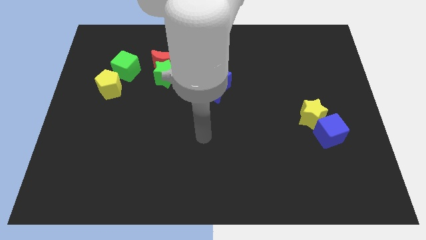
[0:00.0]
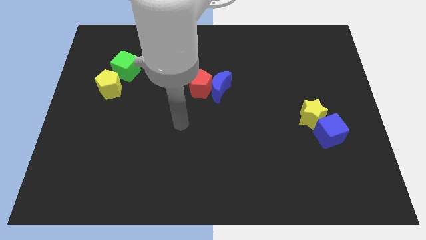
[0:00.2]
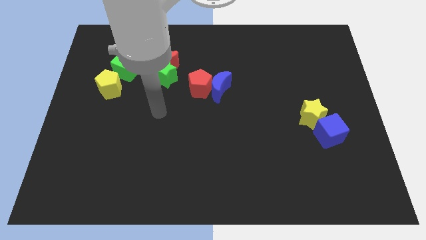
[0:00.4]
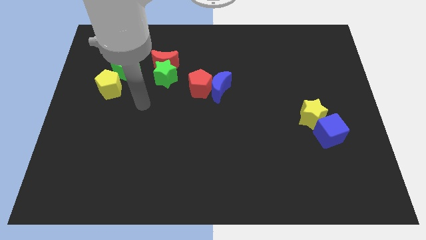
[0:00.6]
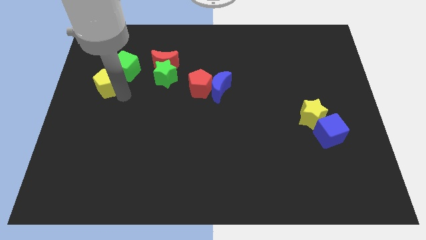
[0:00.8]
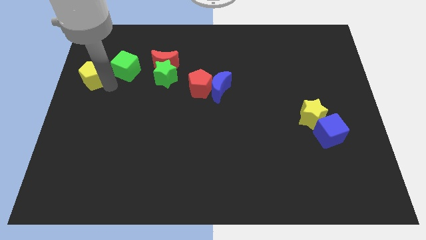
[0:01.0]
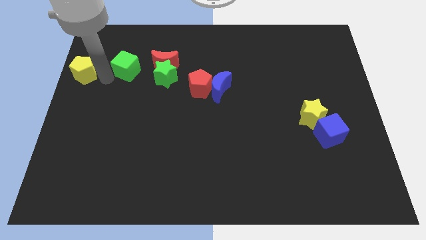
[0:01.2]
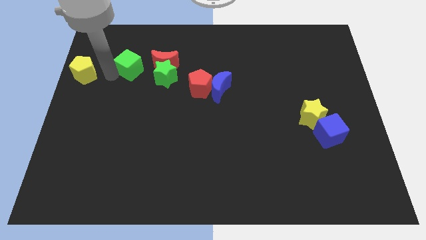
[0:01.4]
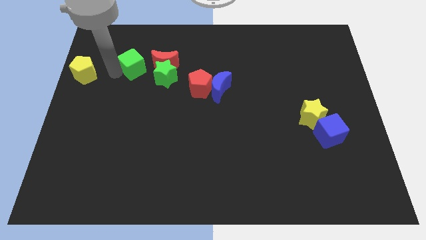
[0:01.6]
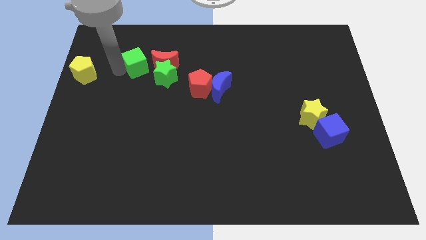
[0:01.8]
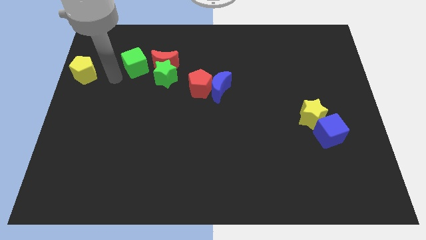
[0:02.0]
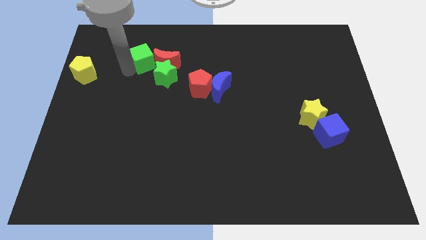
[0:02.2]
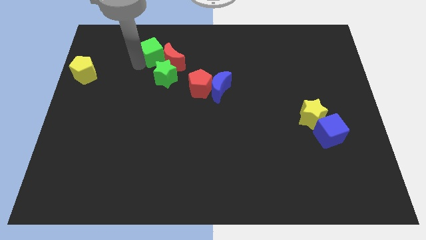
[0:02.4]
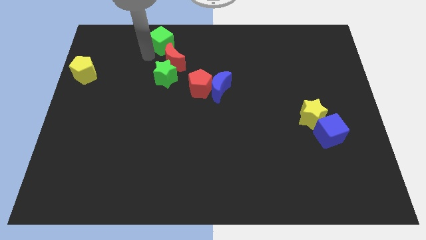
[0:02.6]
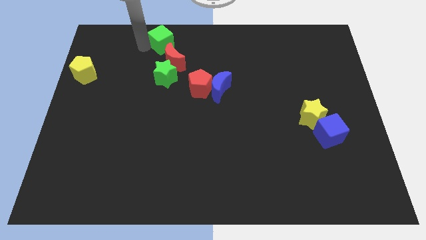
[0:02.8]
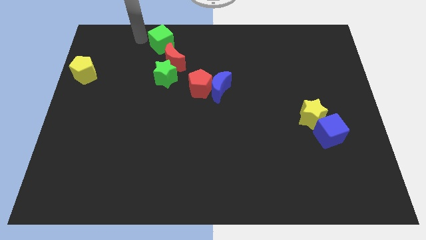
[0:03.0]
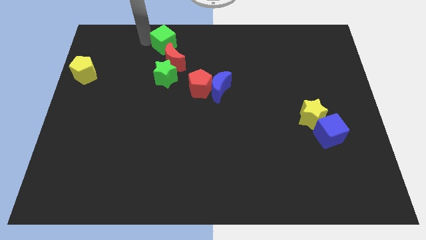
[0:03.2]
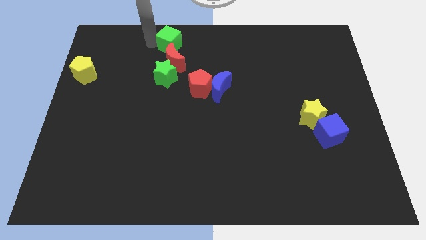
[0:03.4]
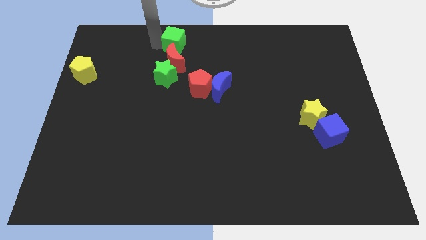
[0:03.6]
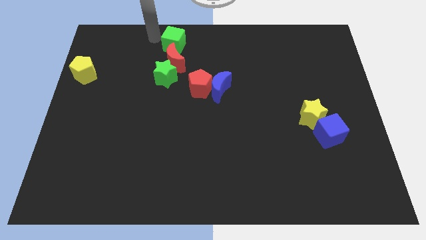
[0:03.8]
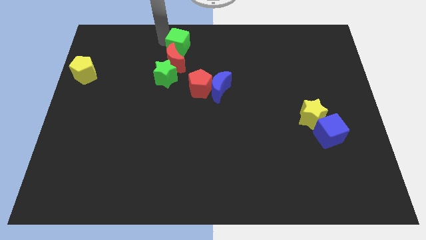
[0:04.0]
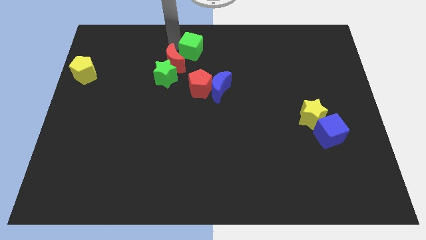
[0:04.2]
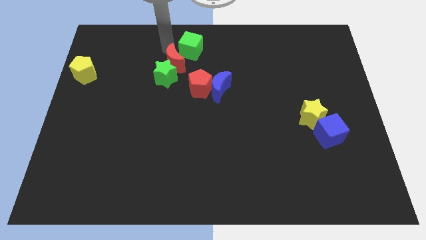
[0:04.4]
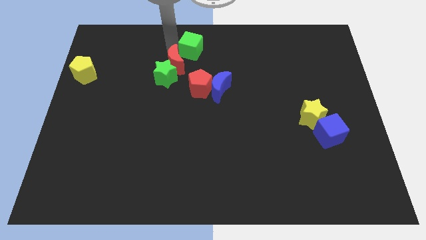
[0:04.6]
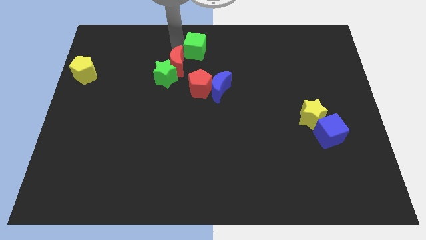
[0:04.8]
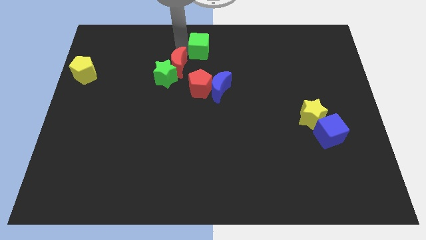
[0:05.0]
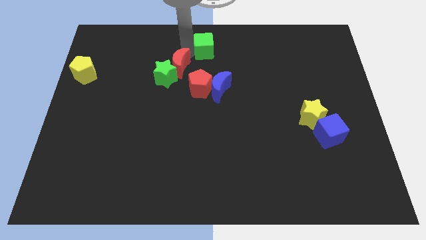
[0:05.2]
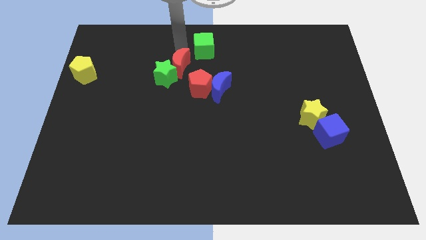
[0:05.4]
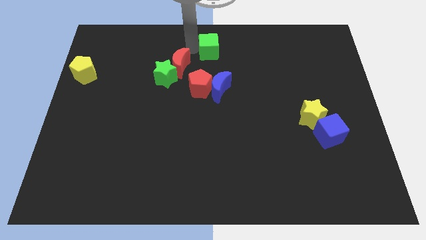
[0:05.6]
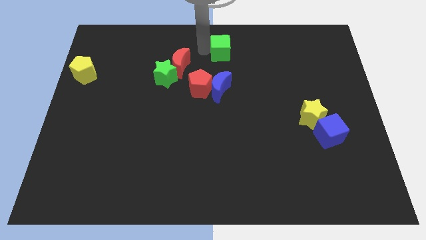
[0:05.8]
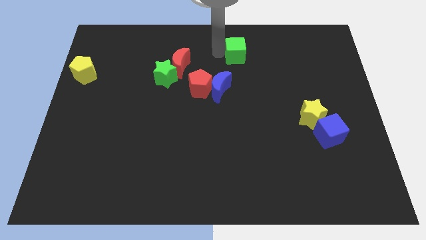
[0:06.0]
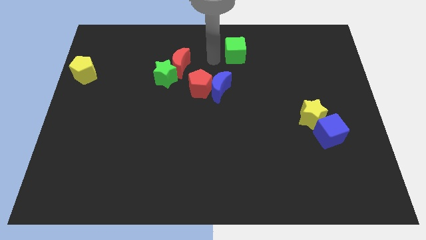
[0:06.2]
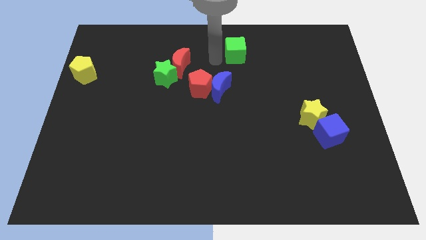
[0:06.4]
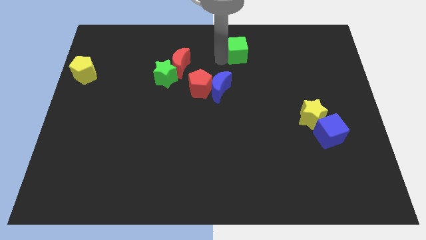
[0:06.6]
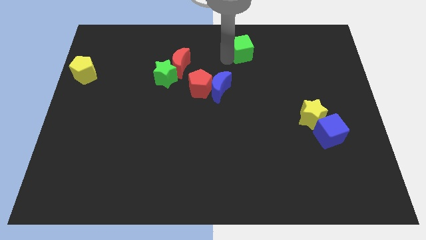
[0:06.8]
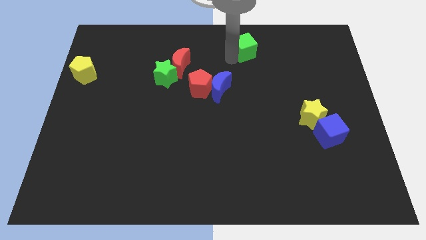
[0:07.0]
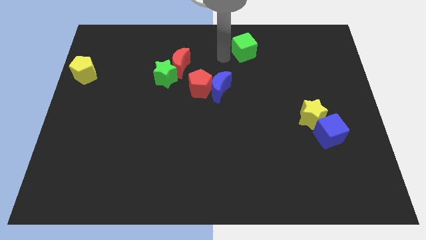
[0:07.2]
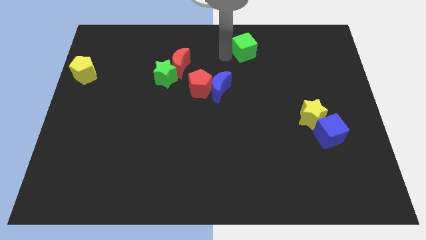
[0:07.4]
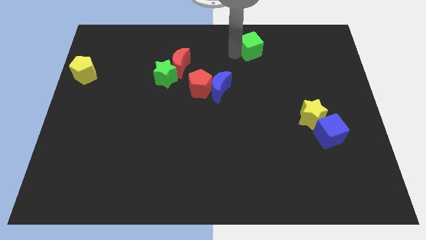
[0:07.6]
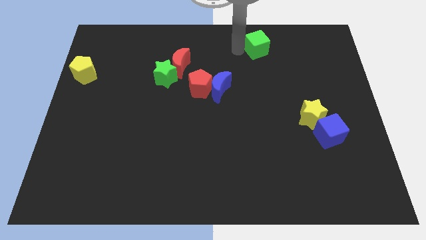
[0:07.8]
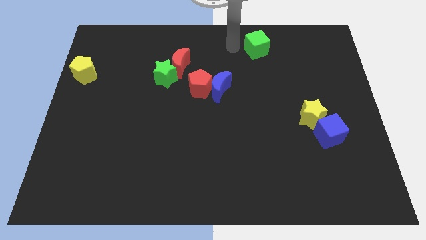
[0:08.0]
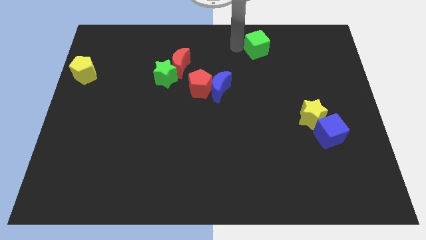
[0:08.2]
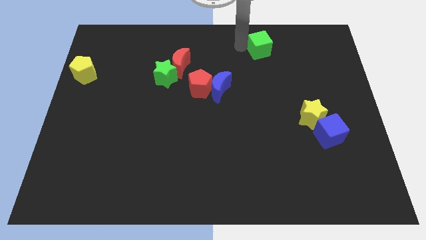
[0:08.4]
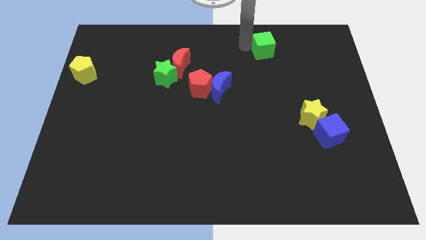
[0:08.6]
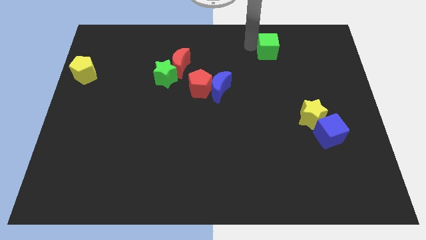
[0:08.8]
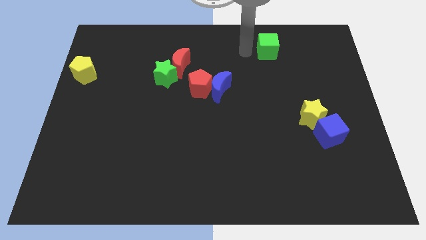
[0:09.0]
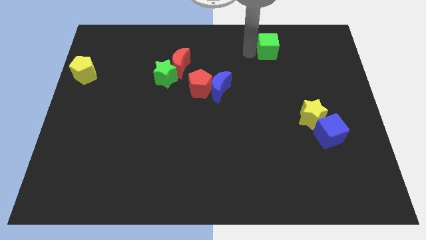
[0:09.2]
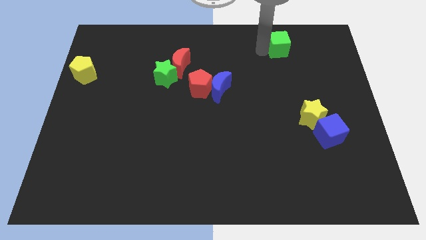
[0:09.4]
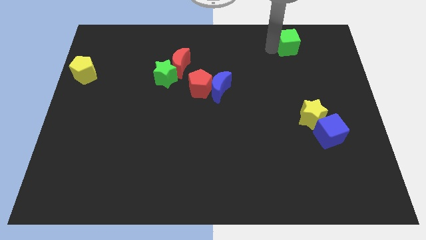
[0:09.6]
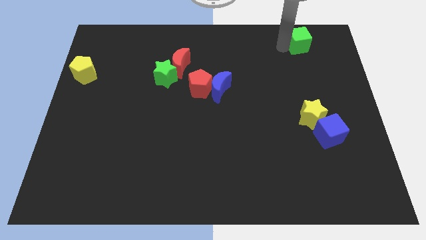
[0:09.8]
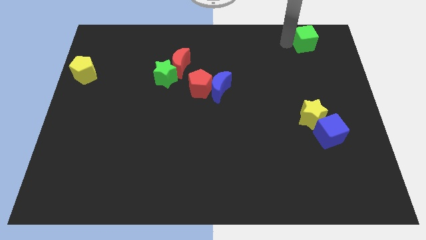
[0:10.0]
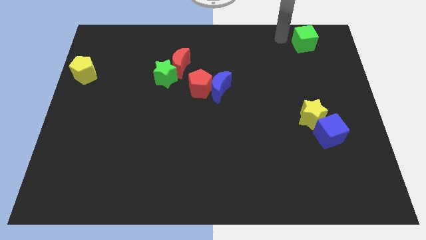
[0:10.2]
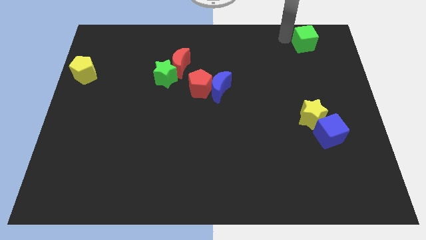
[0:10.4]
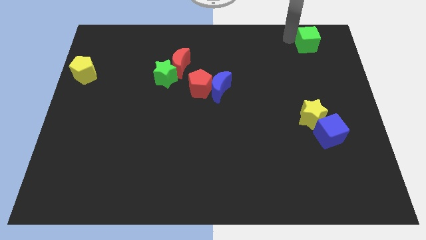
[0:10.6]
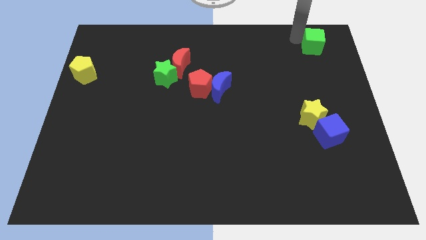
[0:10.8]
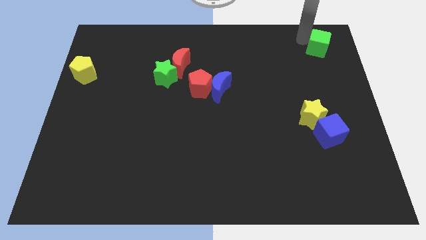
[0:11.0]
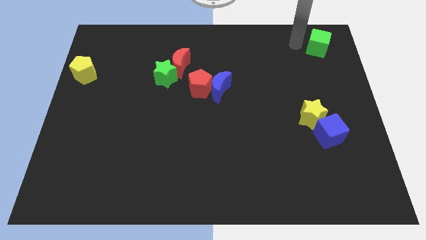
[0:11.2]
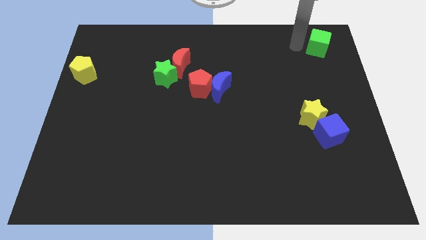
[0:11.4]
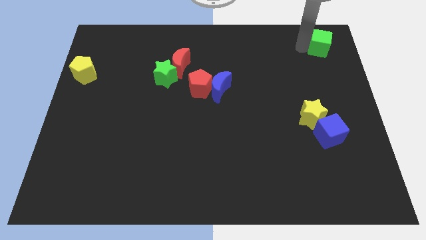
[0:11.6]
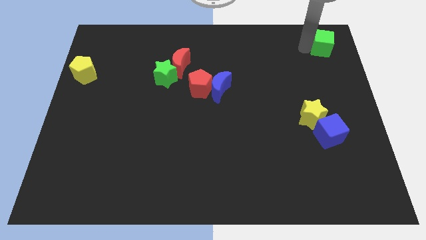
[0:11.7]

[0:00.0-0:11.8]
put the green cube to the top right corner
